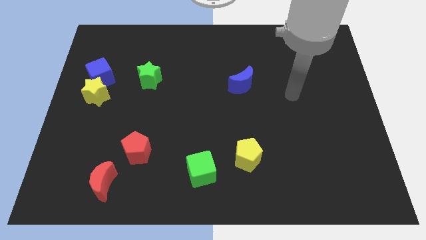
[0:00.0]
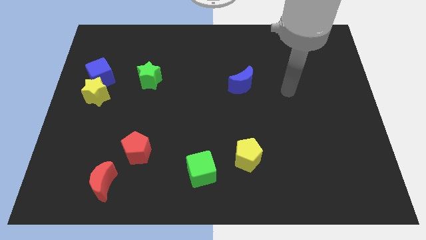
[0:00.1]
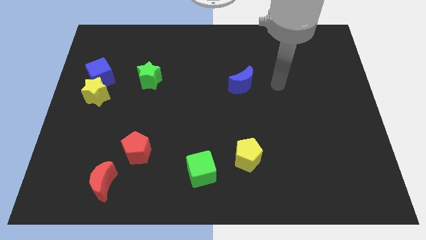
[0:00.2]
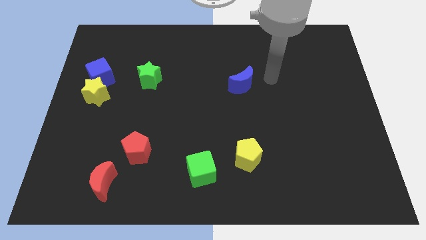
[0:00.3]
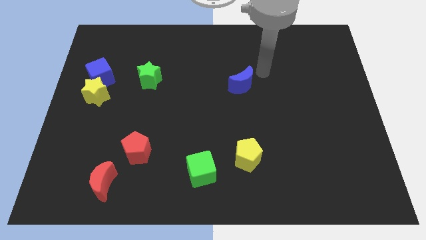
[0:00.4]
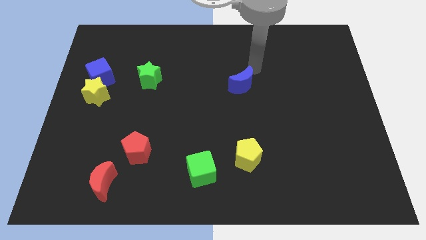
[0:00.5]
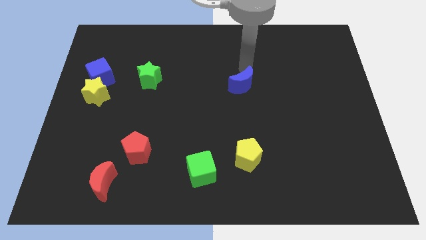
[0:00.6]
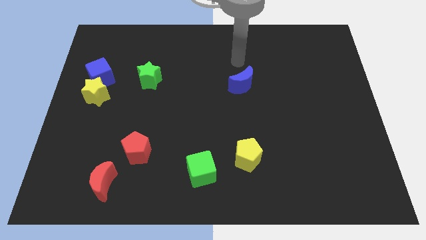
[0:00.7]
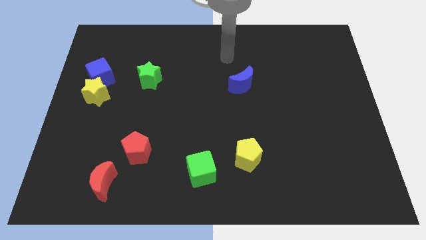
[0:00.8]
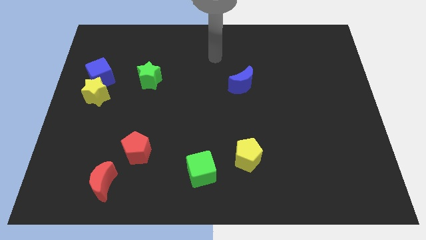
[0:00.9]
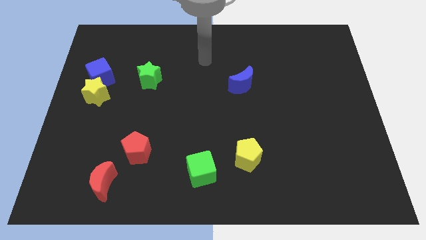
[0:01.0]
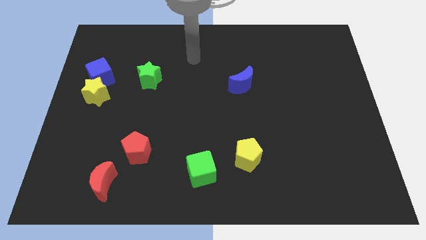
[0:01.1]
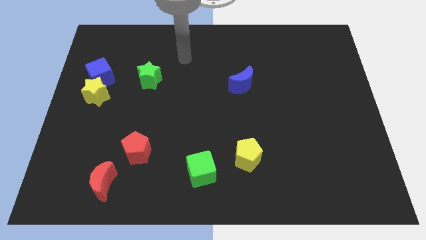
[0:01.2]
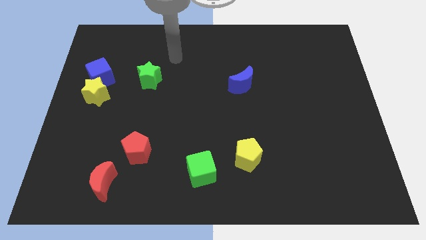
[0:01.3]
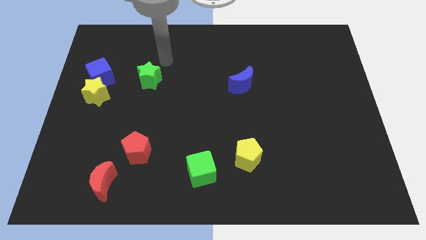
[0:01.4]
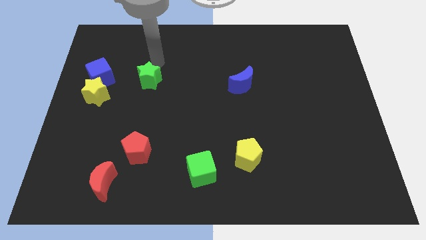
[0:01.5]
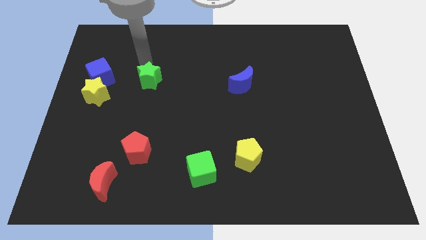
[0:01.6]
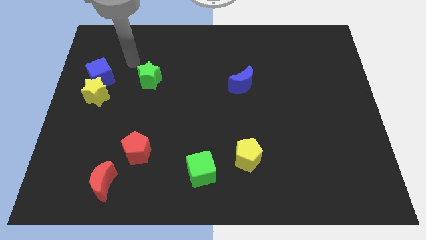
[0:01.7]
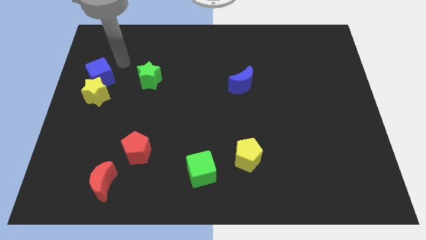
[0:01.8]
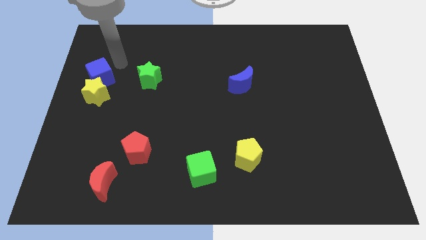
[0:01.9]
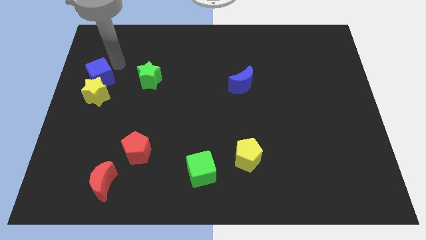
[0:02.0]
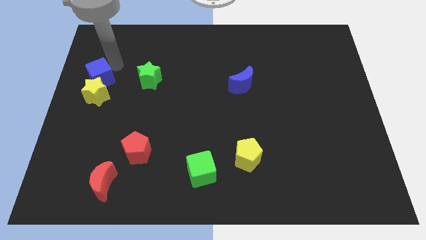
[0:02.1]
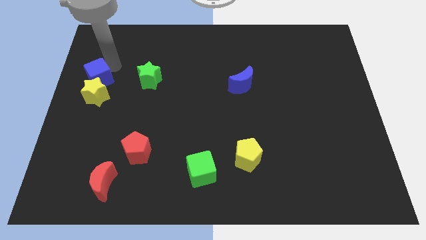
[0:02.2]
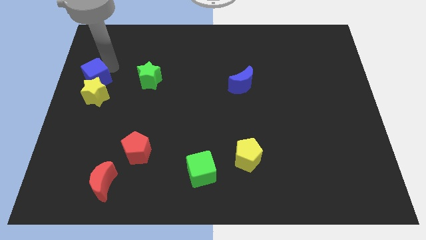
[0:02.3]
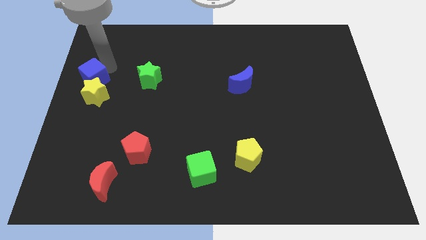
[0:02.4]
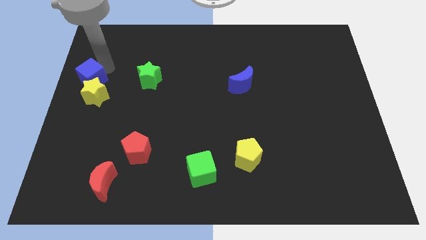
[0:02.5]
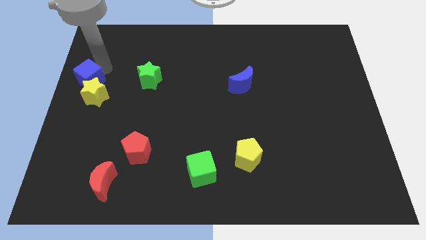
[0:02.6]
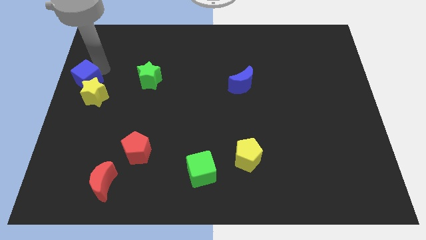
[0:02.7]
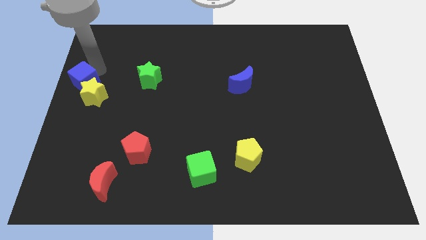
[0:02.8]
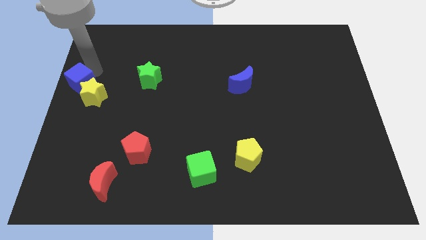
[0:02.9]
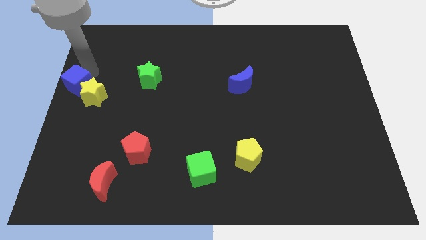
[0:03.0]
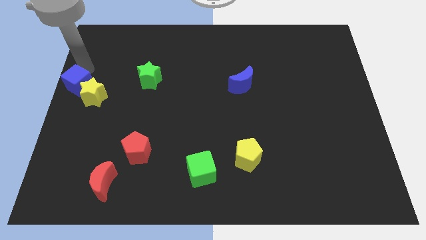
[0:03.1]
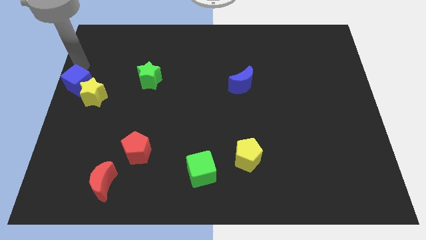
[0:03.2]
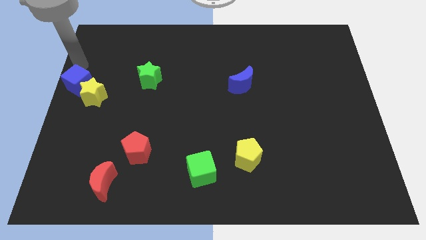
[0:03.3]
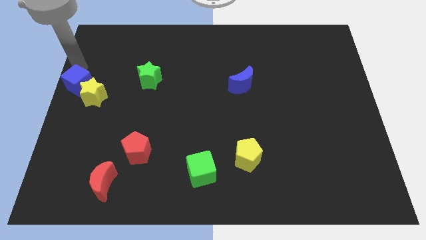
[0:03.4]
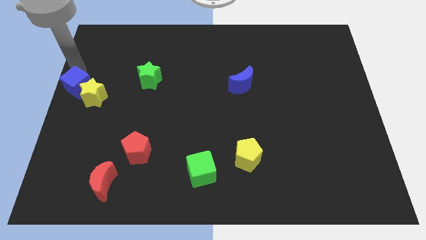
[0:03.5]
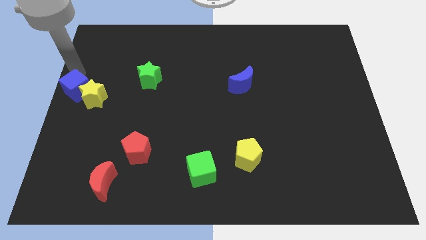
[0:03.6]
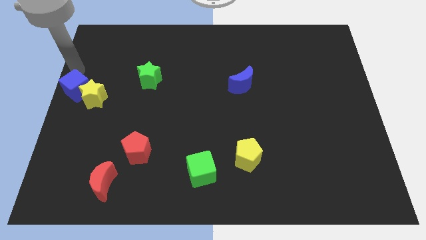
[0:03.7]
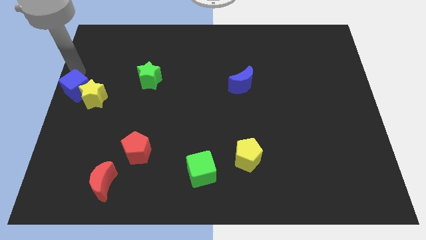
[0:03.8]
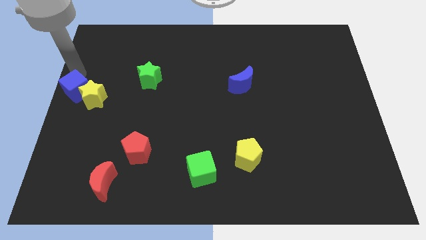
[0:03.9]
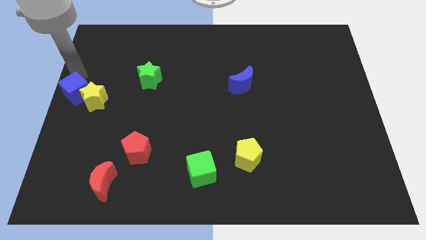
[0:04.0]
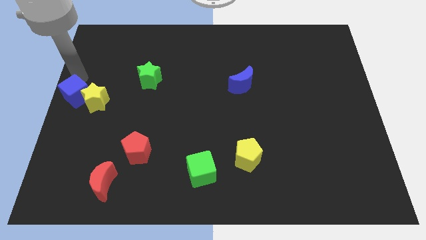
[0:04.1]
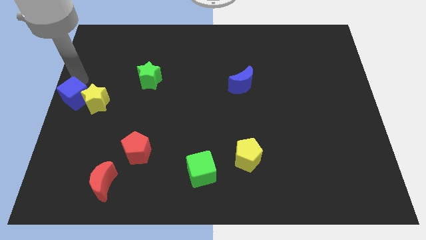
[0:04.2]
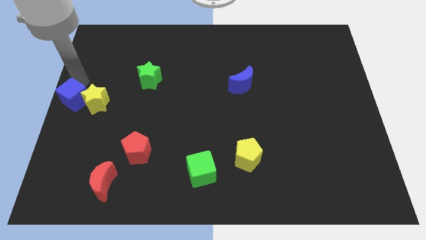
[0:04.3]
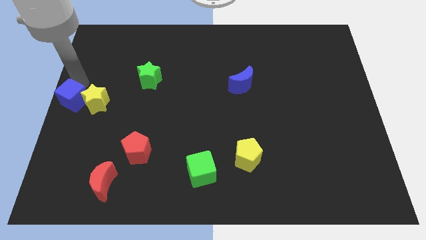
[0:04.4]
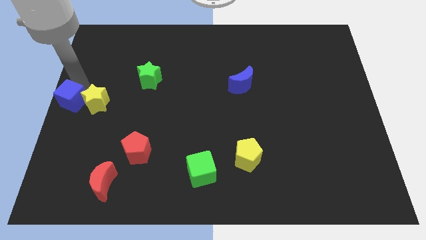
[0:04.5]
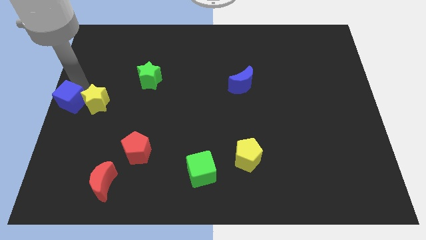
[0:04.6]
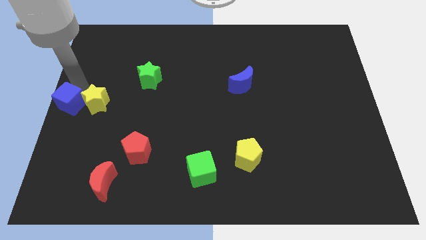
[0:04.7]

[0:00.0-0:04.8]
slightly slide the blue cube down

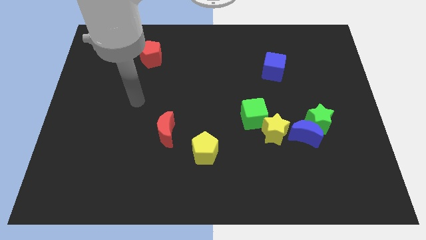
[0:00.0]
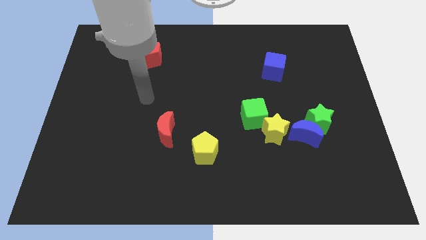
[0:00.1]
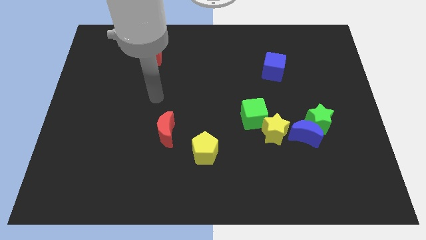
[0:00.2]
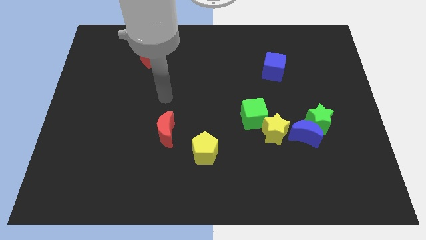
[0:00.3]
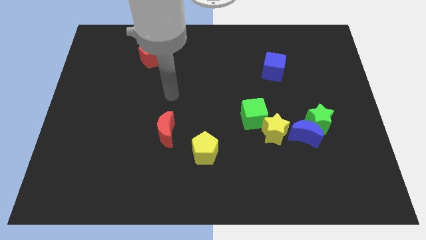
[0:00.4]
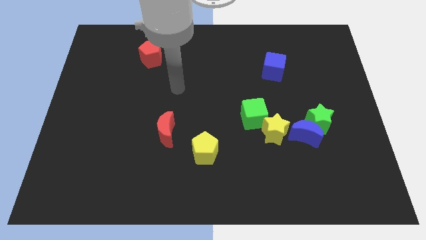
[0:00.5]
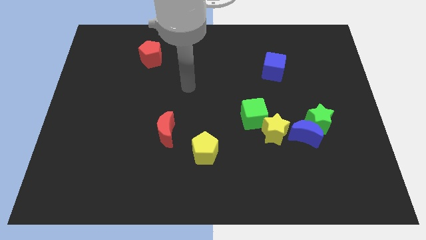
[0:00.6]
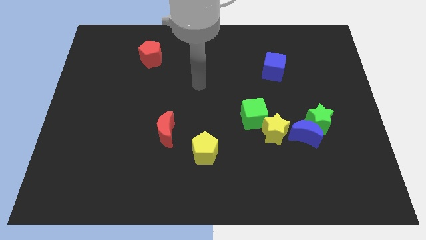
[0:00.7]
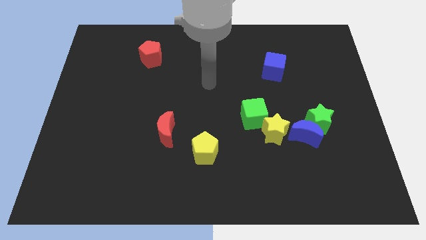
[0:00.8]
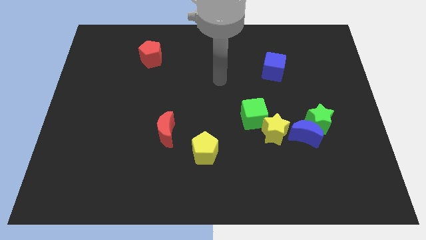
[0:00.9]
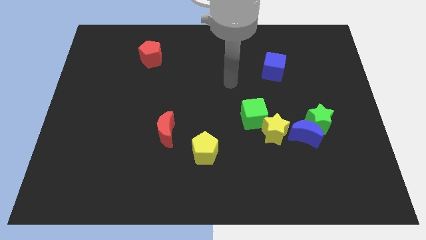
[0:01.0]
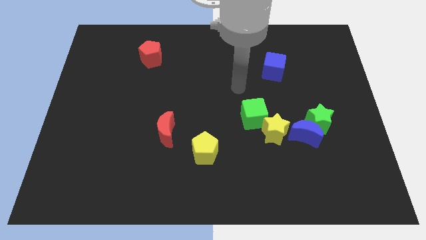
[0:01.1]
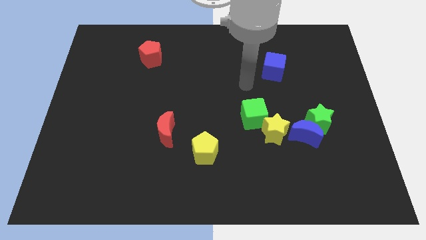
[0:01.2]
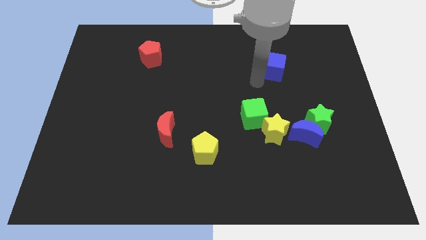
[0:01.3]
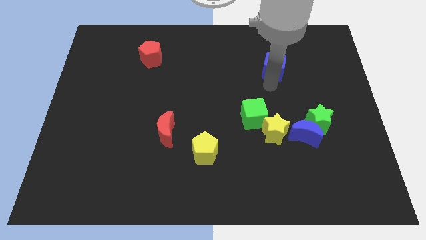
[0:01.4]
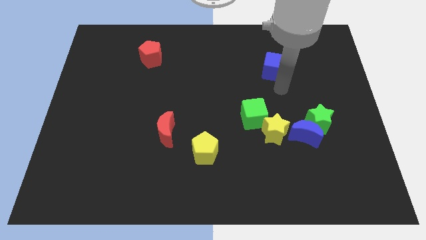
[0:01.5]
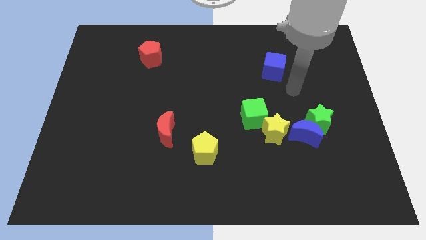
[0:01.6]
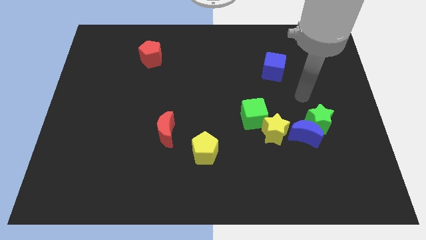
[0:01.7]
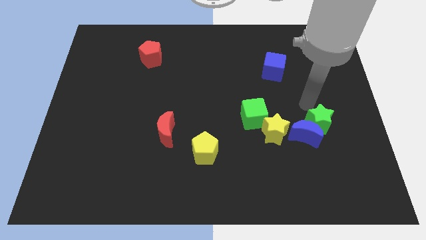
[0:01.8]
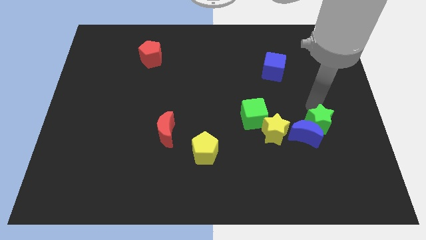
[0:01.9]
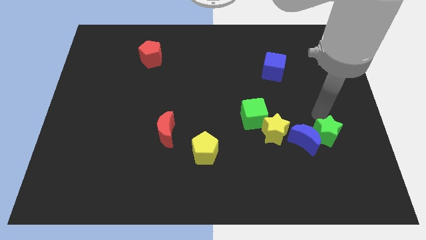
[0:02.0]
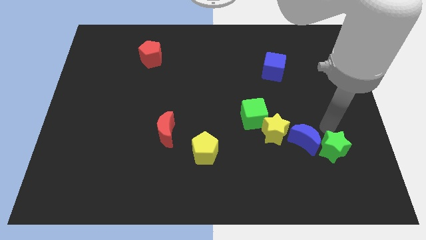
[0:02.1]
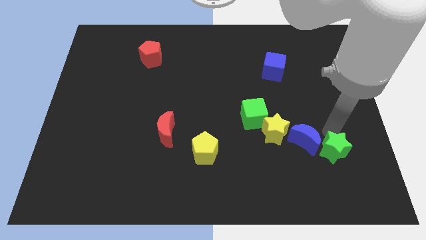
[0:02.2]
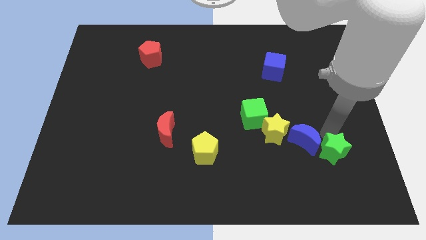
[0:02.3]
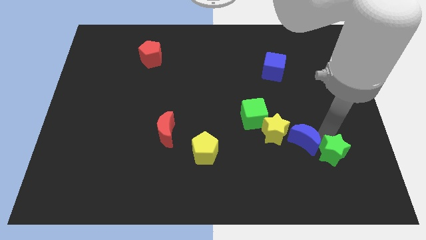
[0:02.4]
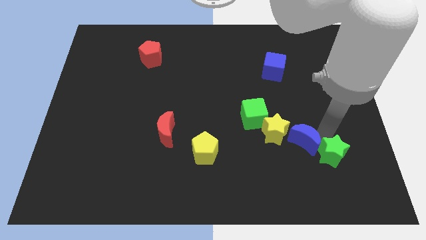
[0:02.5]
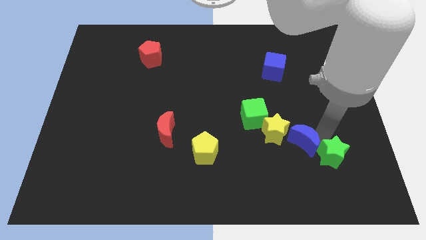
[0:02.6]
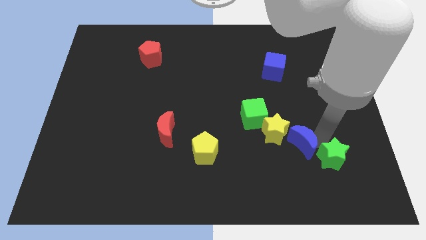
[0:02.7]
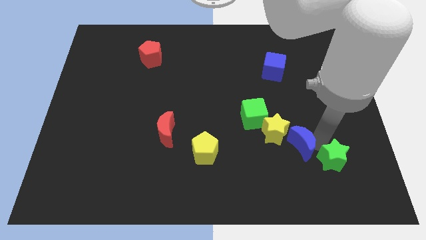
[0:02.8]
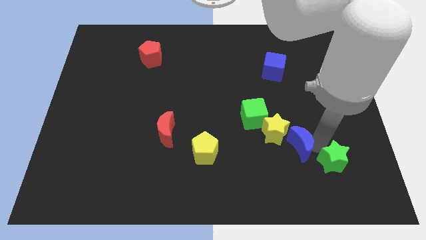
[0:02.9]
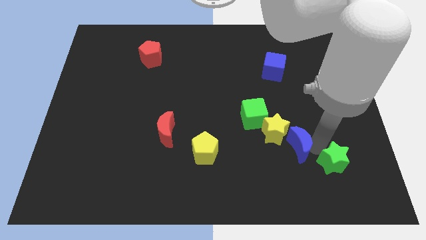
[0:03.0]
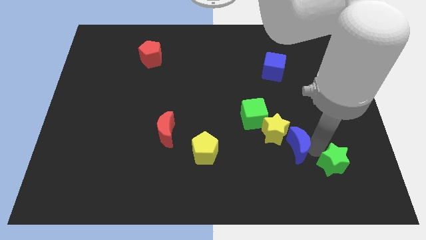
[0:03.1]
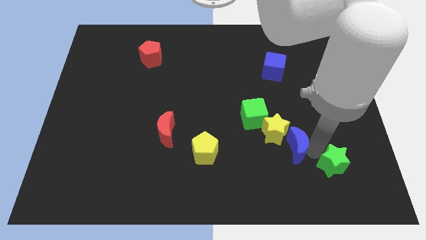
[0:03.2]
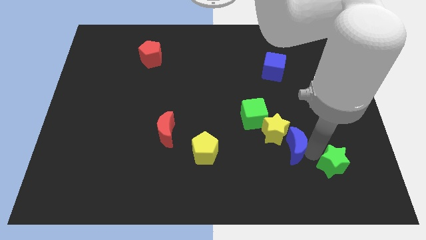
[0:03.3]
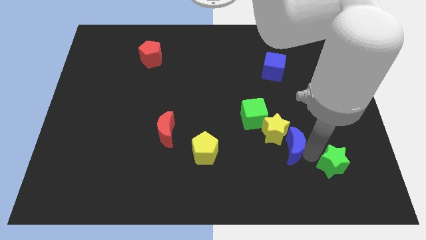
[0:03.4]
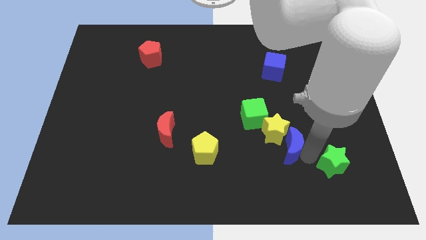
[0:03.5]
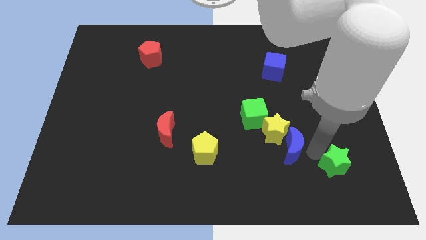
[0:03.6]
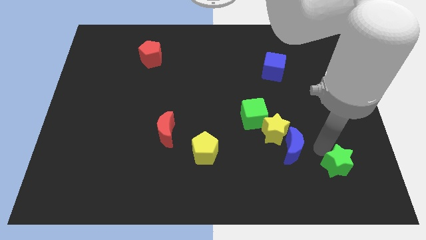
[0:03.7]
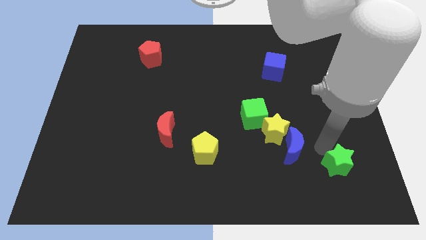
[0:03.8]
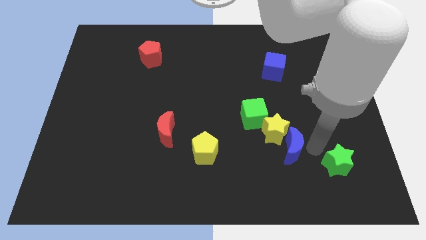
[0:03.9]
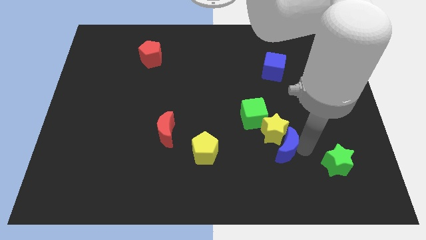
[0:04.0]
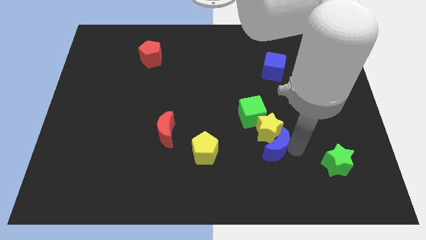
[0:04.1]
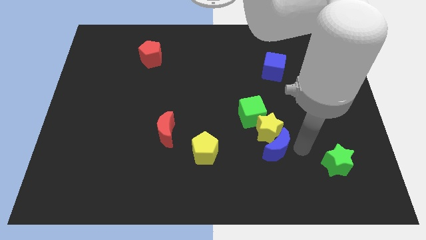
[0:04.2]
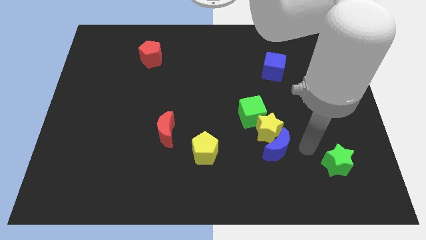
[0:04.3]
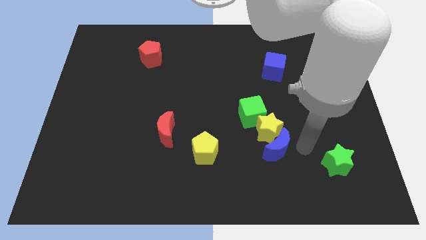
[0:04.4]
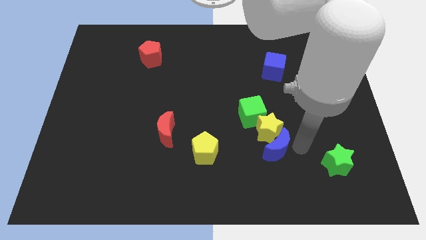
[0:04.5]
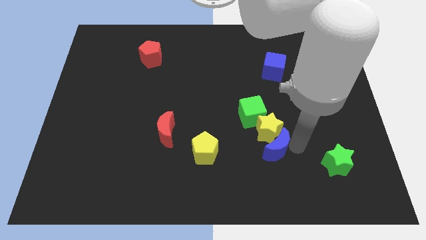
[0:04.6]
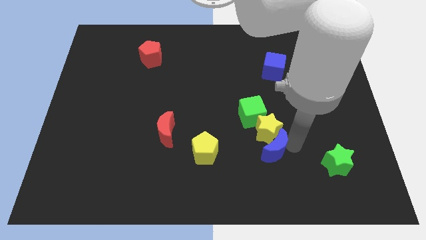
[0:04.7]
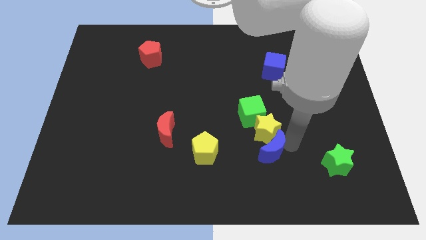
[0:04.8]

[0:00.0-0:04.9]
move the blue moon a little left
